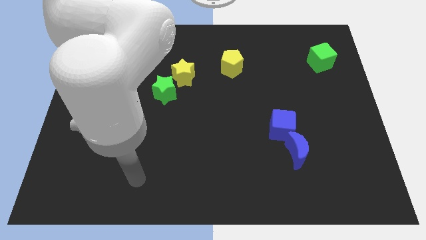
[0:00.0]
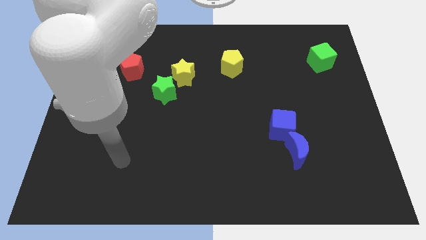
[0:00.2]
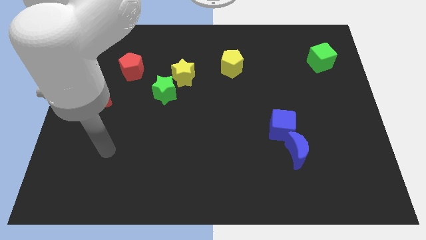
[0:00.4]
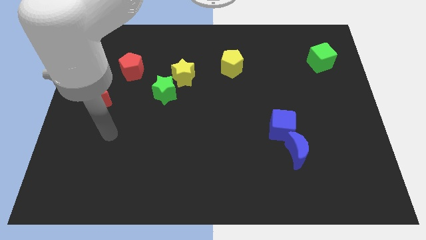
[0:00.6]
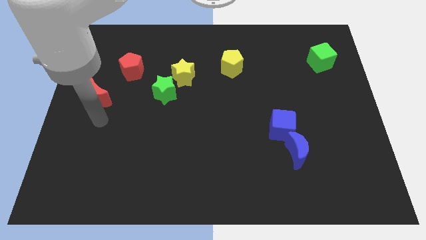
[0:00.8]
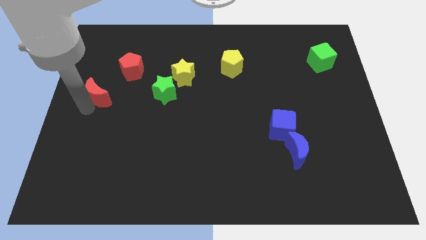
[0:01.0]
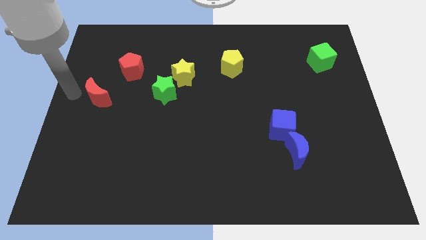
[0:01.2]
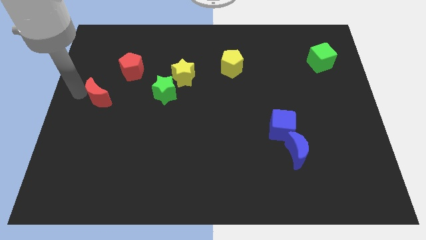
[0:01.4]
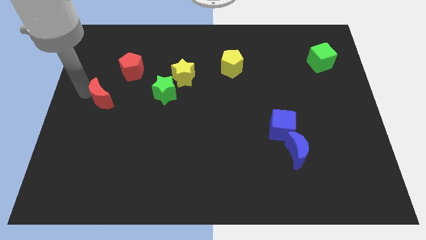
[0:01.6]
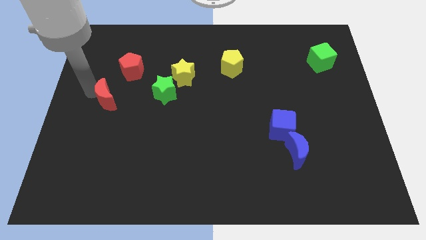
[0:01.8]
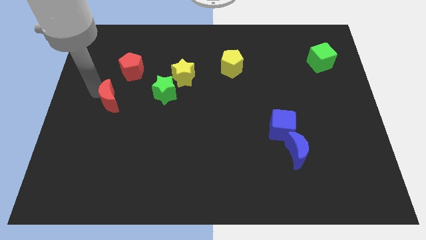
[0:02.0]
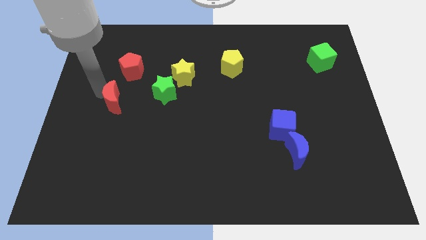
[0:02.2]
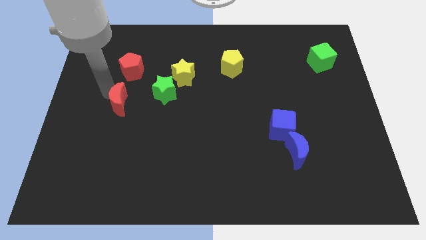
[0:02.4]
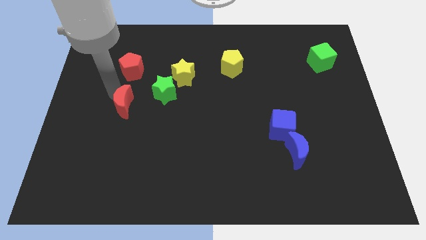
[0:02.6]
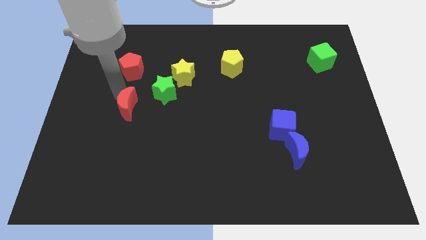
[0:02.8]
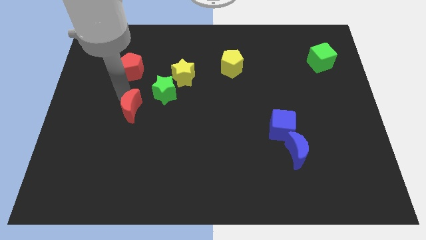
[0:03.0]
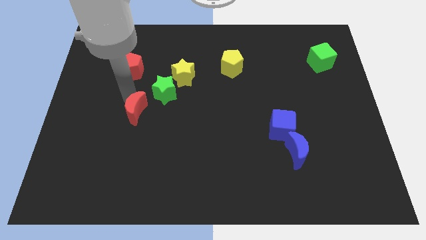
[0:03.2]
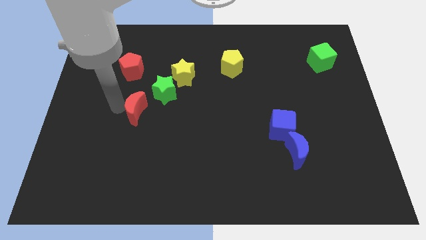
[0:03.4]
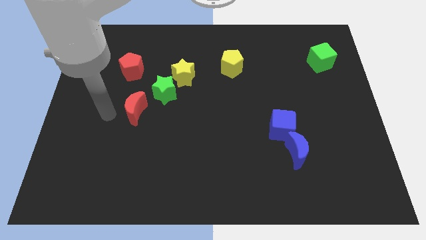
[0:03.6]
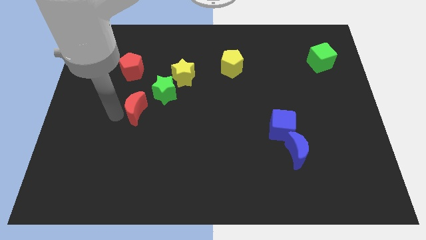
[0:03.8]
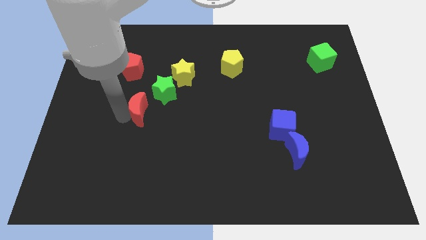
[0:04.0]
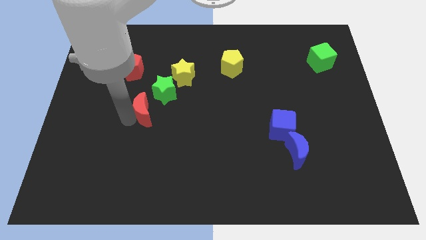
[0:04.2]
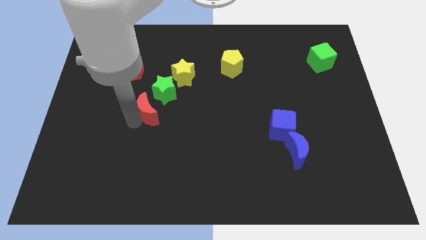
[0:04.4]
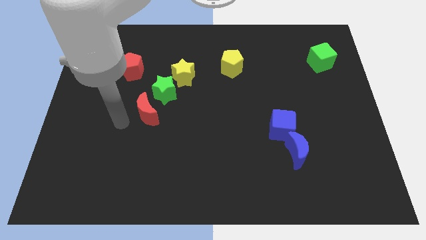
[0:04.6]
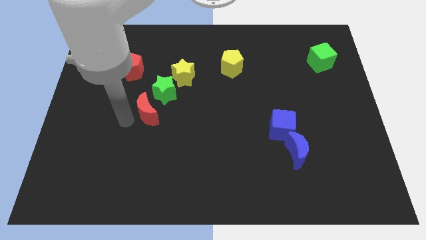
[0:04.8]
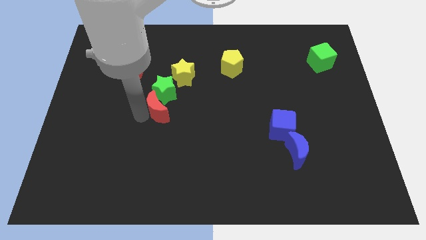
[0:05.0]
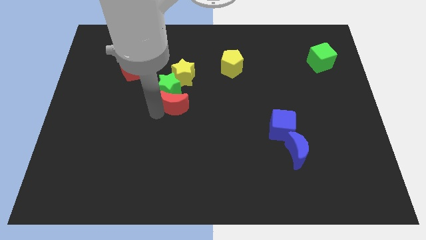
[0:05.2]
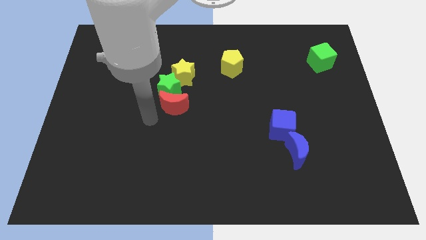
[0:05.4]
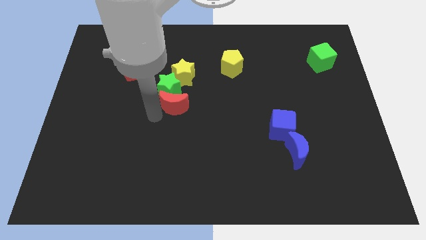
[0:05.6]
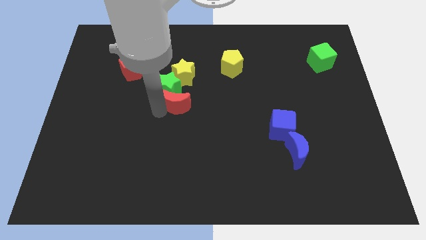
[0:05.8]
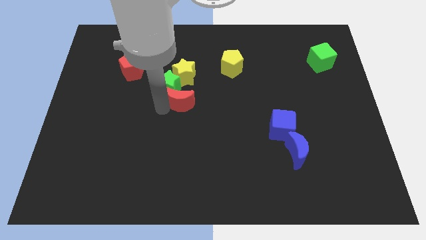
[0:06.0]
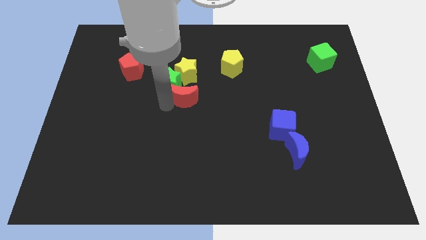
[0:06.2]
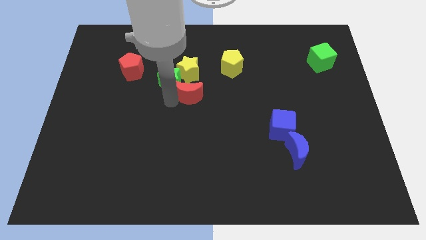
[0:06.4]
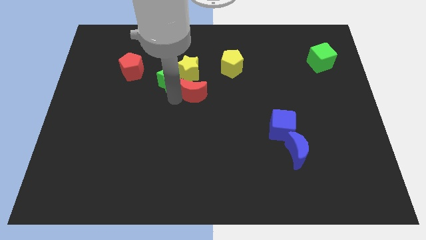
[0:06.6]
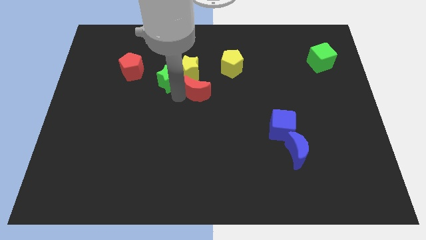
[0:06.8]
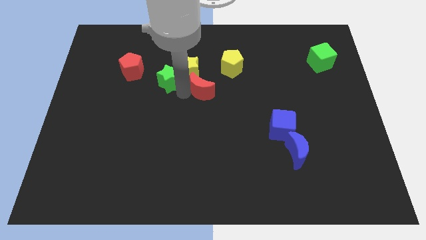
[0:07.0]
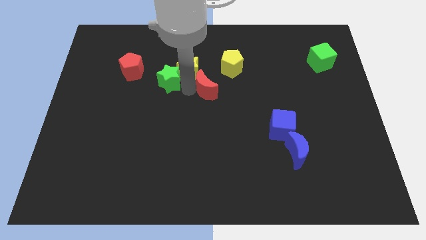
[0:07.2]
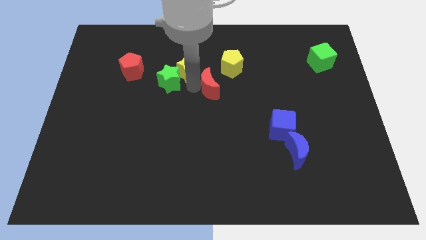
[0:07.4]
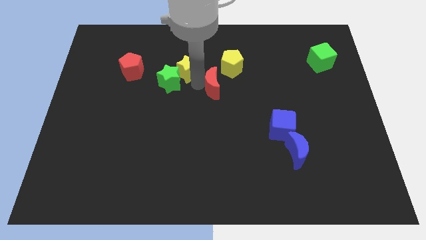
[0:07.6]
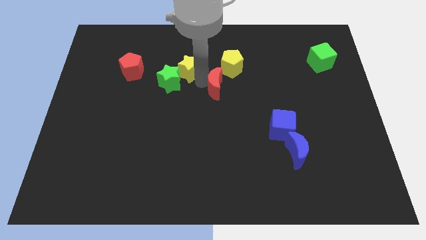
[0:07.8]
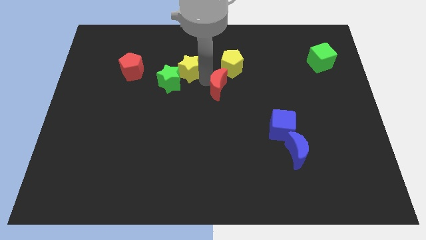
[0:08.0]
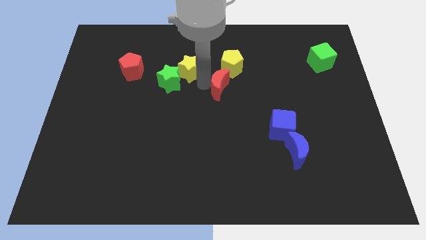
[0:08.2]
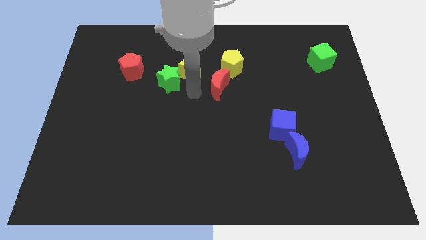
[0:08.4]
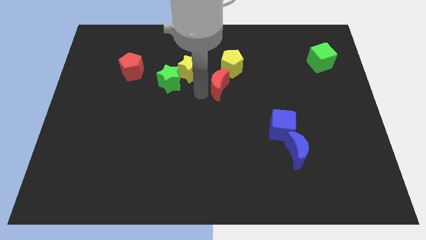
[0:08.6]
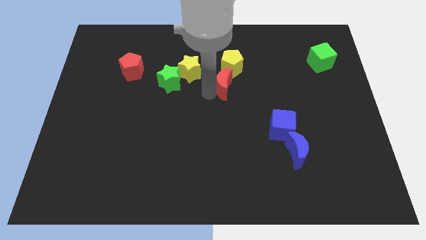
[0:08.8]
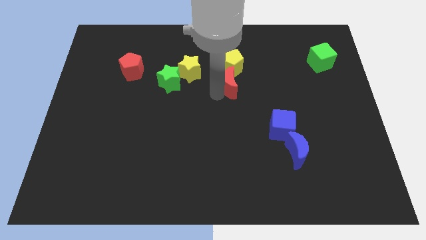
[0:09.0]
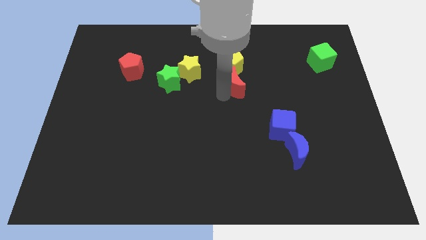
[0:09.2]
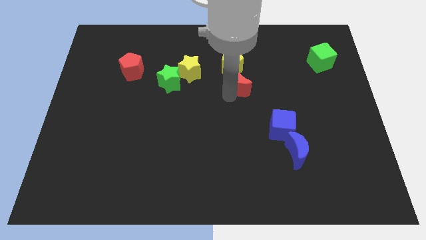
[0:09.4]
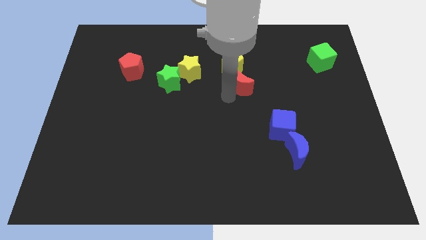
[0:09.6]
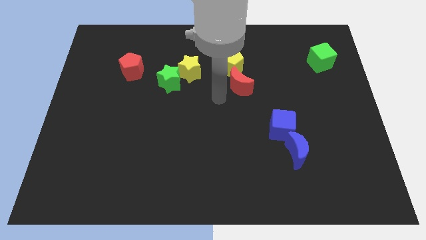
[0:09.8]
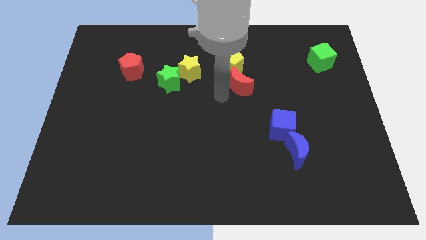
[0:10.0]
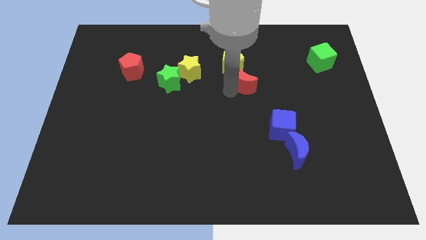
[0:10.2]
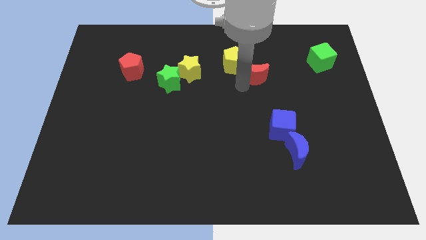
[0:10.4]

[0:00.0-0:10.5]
put the red moon to the right side of the yellow pentagon

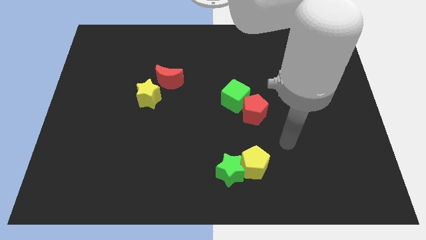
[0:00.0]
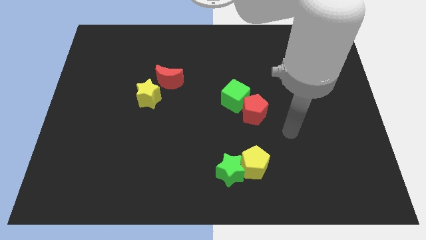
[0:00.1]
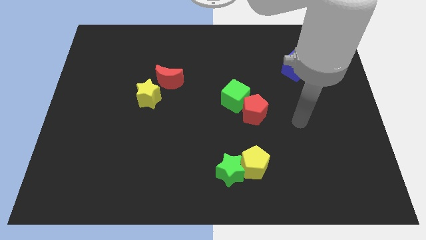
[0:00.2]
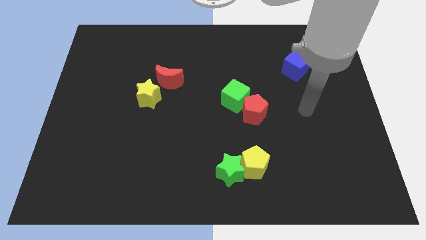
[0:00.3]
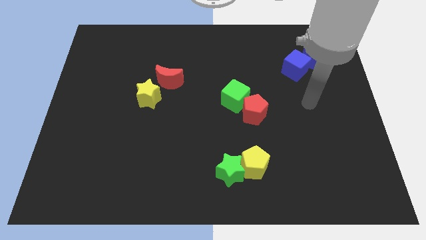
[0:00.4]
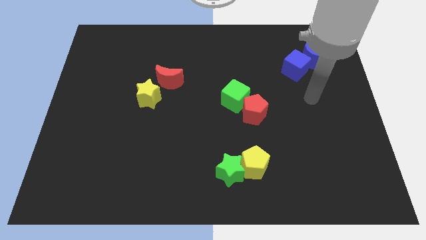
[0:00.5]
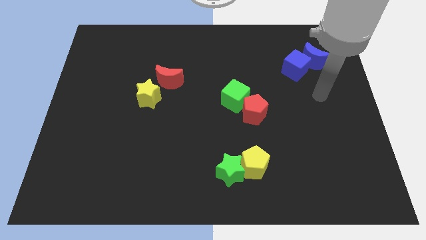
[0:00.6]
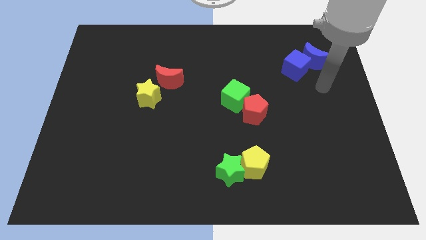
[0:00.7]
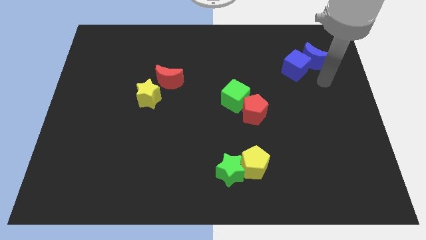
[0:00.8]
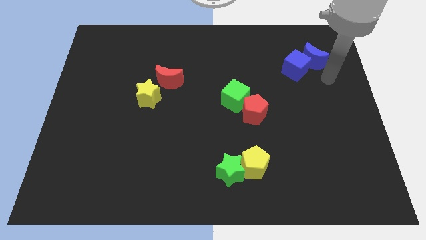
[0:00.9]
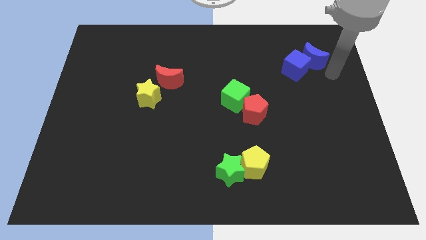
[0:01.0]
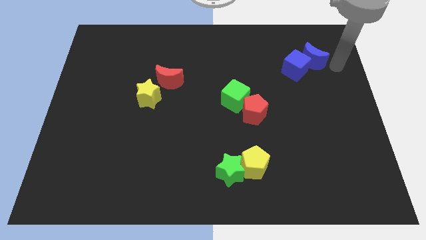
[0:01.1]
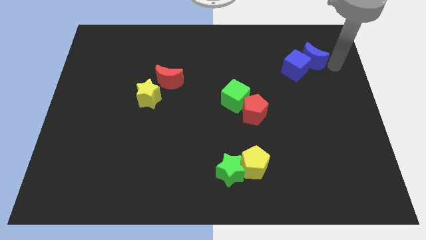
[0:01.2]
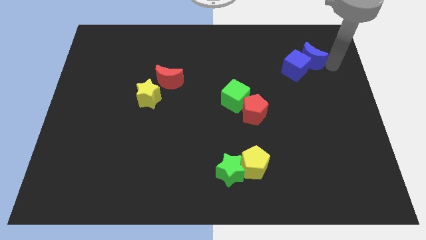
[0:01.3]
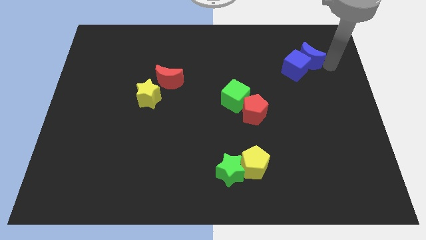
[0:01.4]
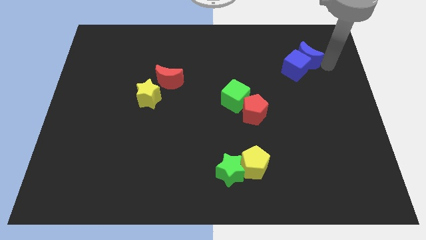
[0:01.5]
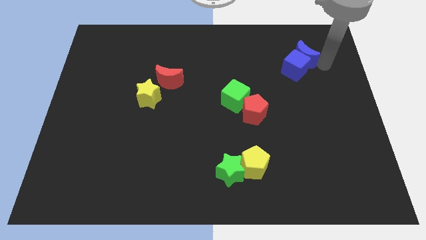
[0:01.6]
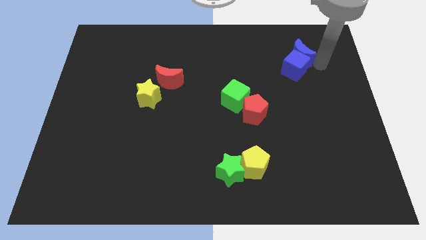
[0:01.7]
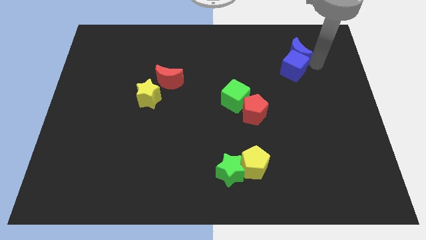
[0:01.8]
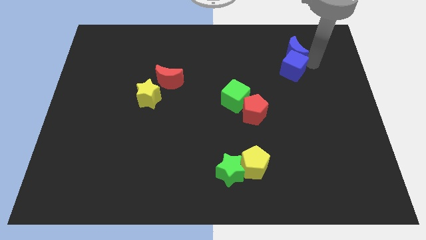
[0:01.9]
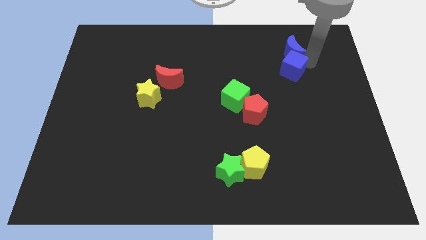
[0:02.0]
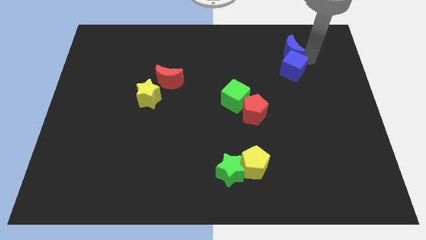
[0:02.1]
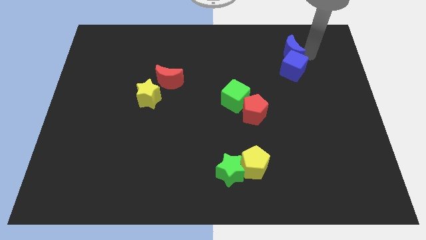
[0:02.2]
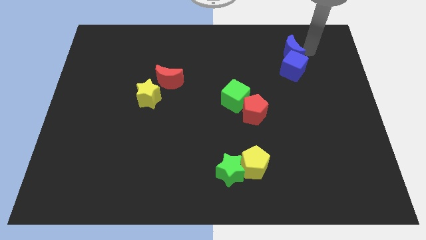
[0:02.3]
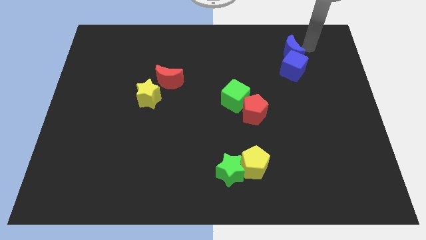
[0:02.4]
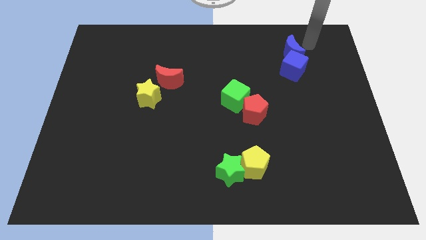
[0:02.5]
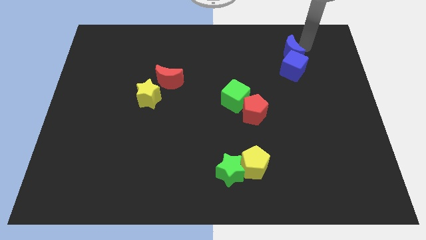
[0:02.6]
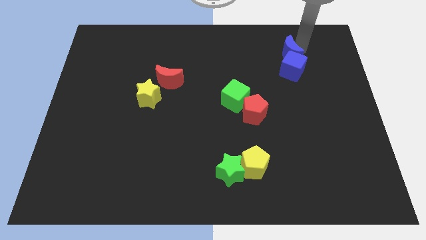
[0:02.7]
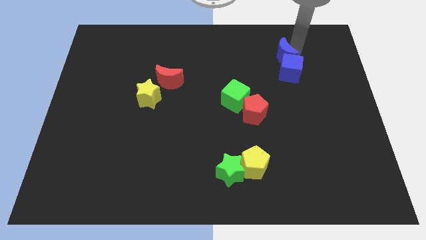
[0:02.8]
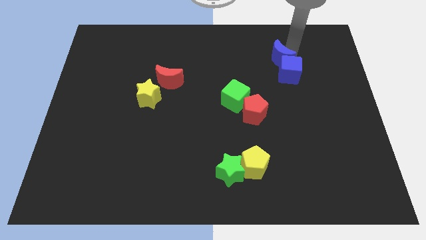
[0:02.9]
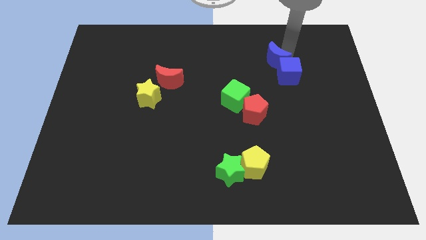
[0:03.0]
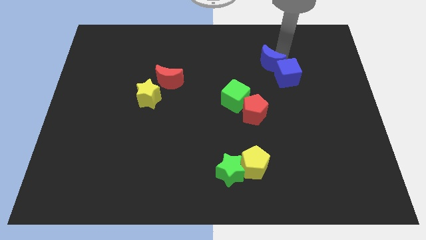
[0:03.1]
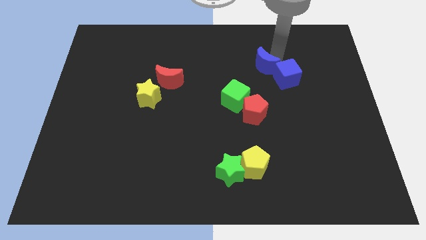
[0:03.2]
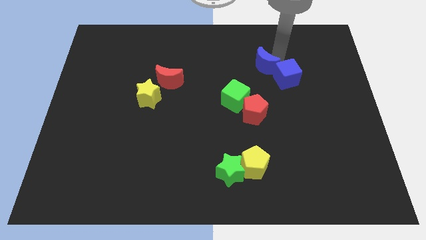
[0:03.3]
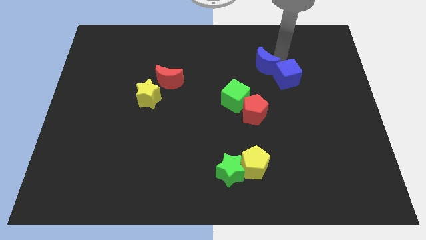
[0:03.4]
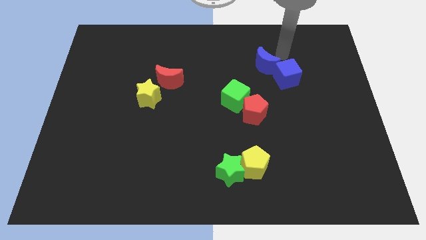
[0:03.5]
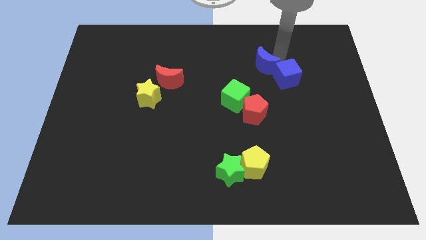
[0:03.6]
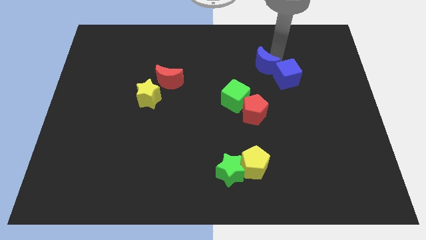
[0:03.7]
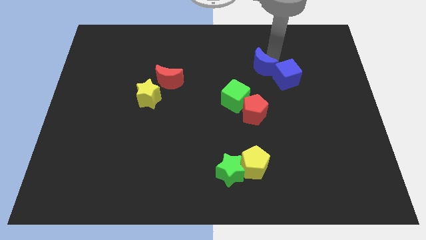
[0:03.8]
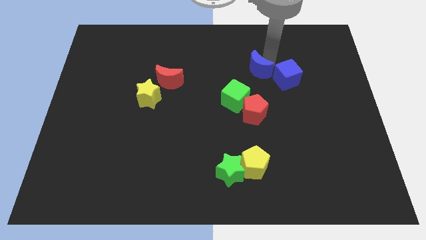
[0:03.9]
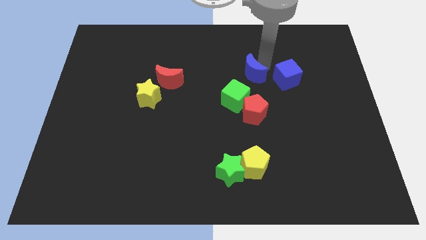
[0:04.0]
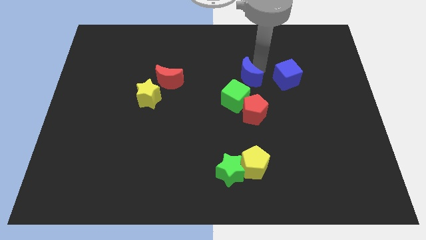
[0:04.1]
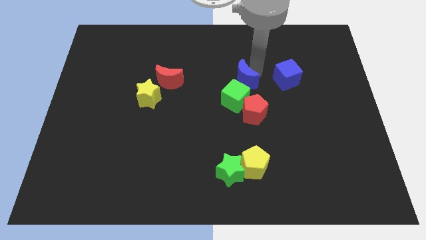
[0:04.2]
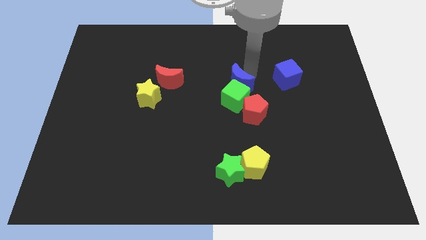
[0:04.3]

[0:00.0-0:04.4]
push the blue moon to the top left of the red pentagon
